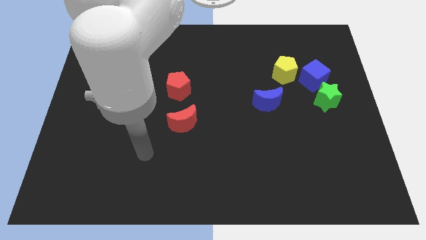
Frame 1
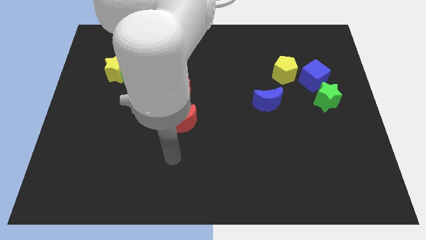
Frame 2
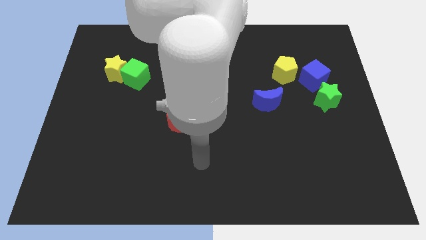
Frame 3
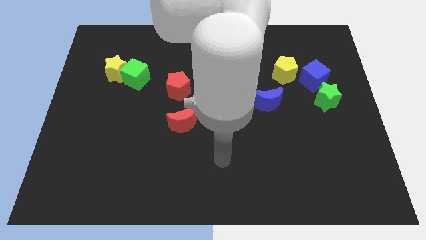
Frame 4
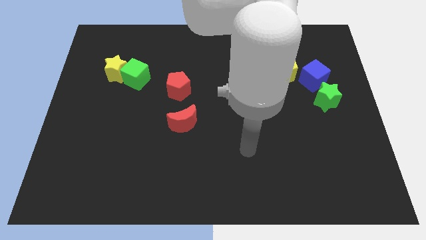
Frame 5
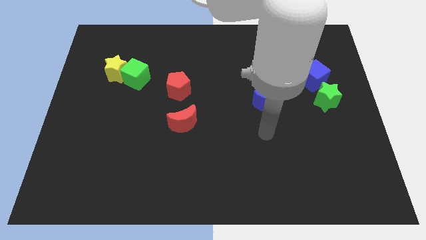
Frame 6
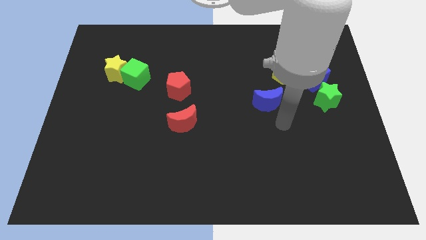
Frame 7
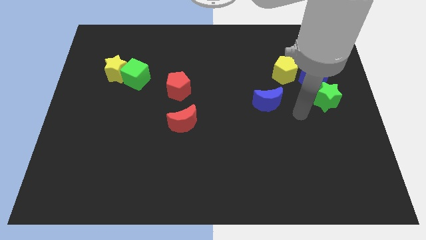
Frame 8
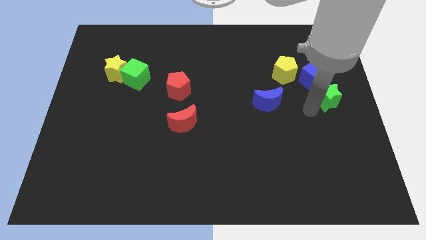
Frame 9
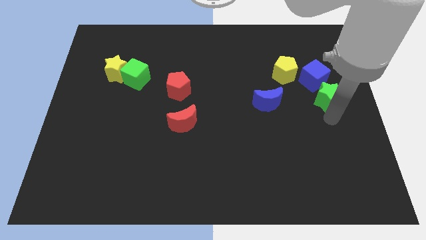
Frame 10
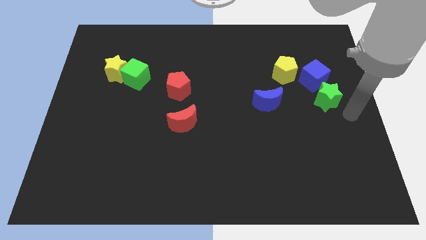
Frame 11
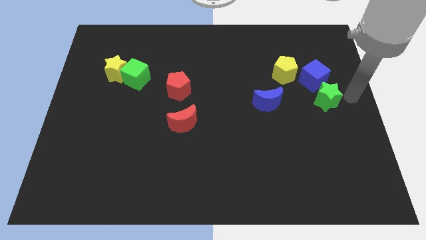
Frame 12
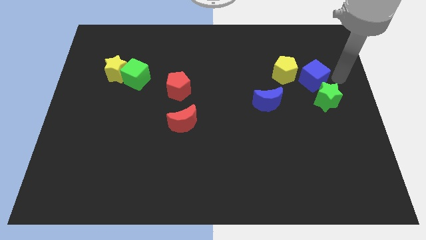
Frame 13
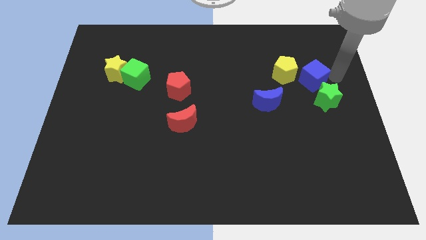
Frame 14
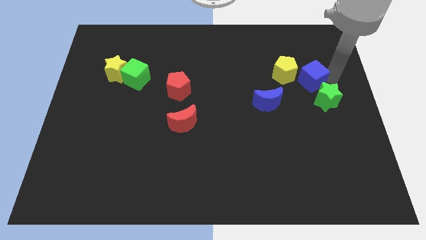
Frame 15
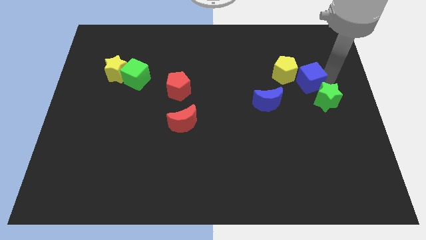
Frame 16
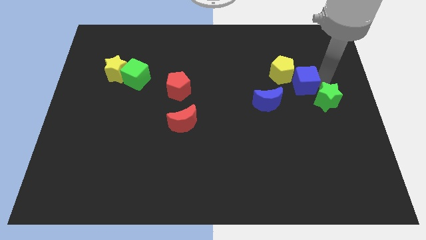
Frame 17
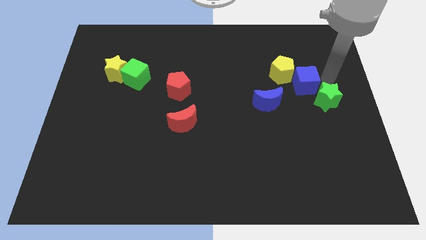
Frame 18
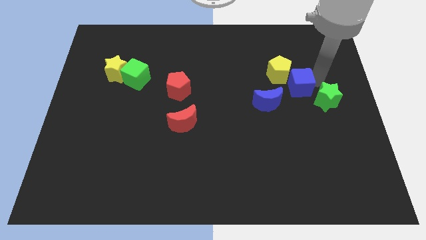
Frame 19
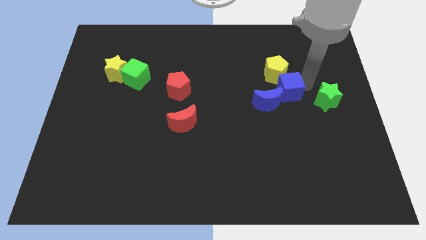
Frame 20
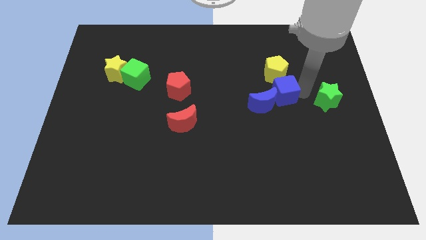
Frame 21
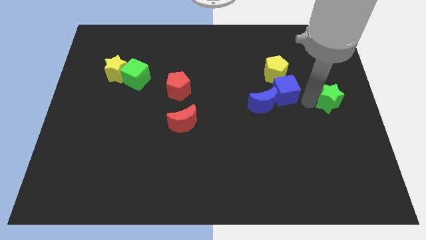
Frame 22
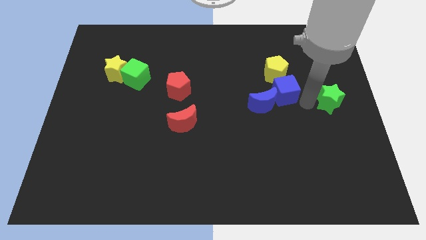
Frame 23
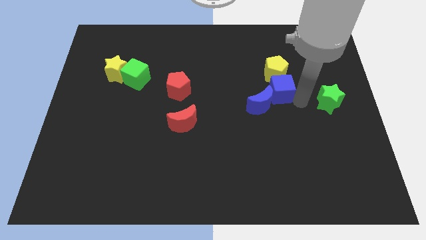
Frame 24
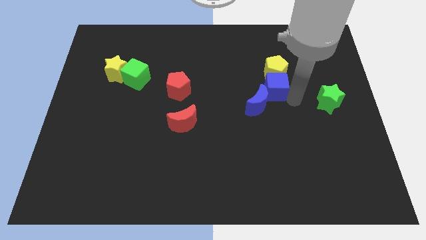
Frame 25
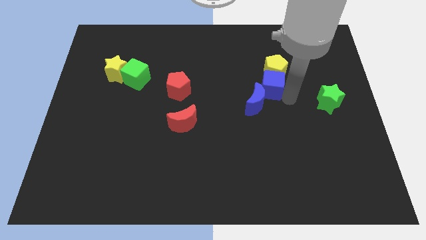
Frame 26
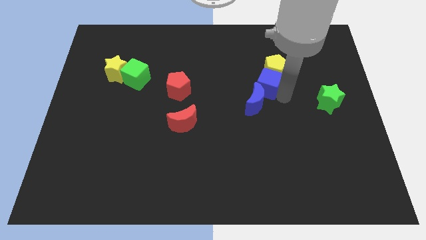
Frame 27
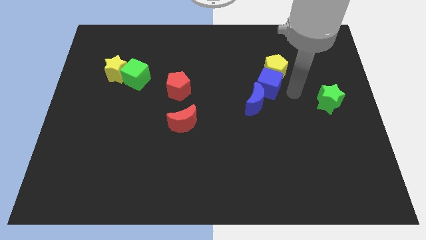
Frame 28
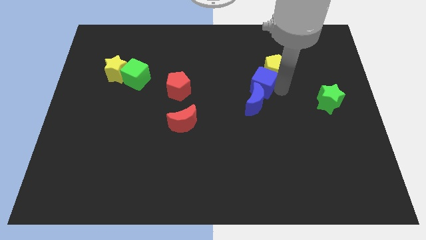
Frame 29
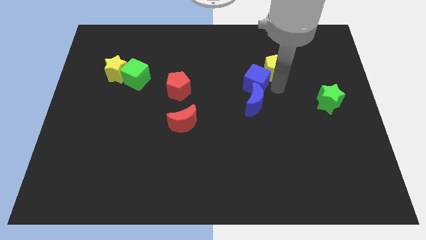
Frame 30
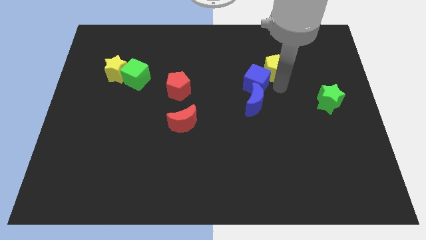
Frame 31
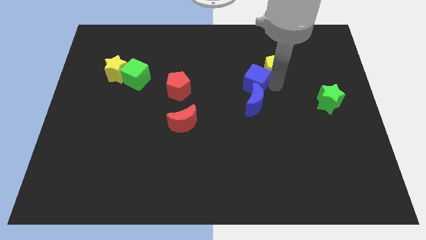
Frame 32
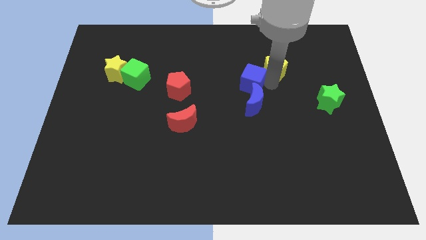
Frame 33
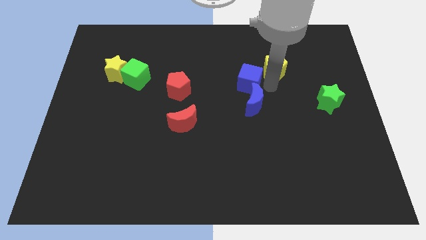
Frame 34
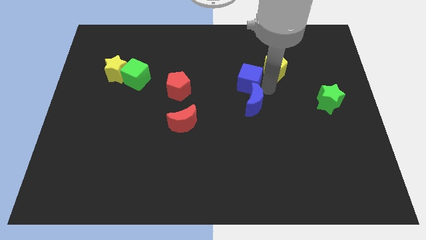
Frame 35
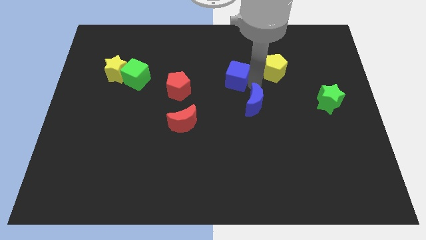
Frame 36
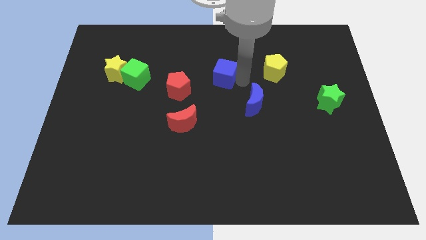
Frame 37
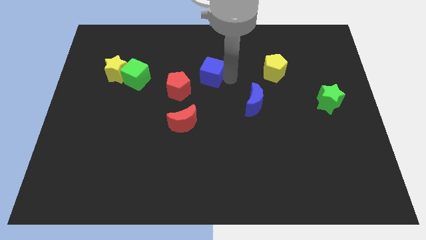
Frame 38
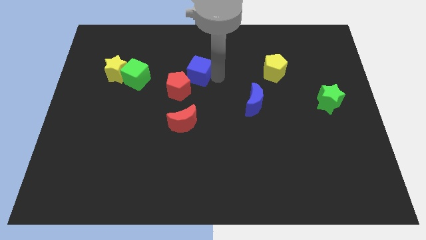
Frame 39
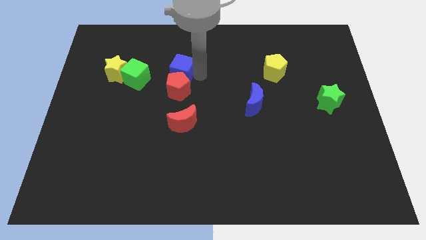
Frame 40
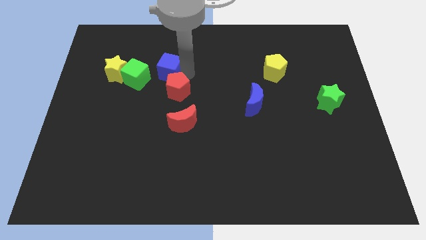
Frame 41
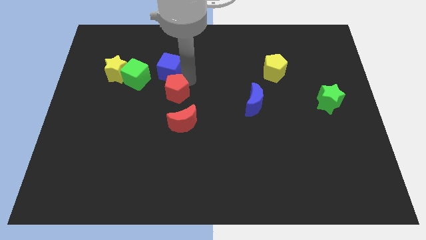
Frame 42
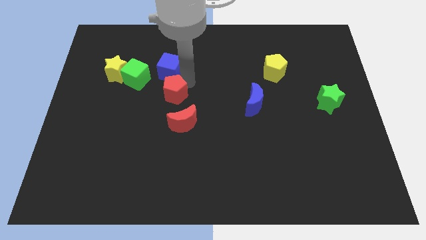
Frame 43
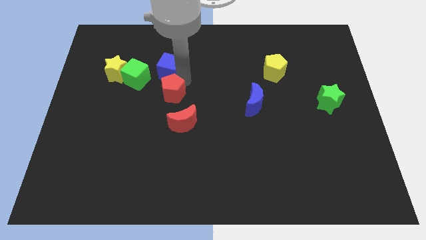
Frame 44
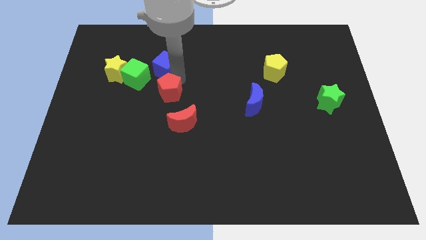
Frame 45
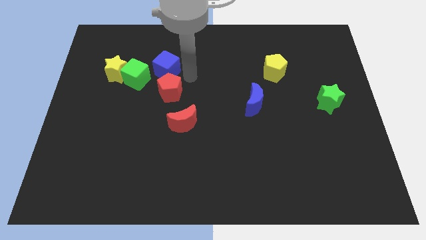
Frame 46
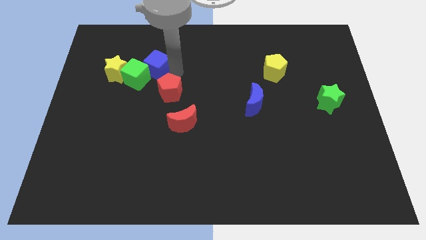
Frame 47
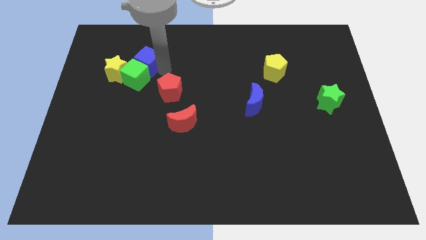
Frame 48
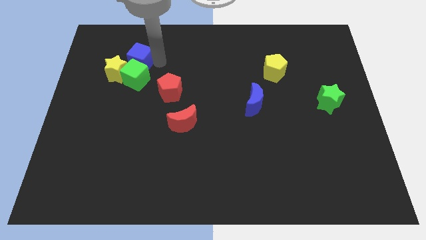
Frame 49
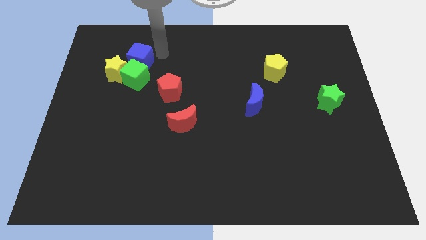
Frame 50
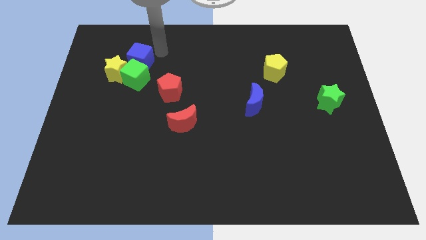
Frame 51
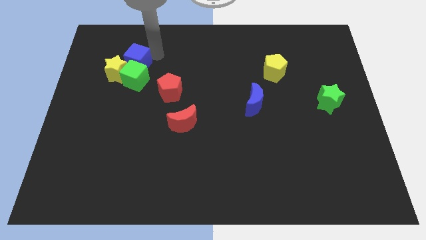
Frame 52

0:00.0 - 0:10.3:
move the blue cube towards the yellow star

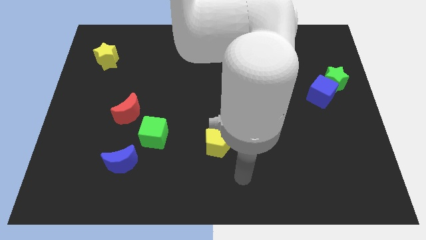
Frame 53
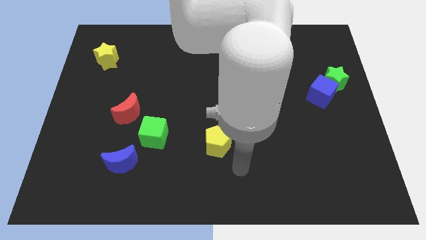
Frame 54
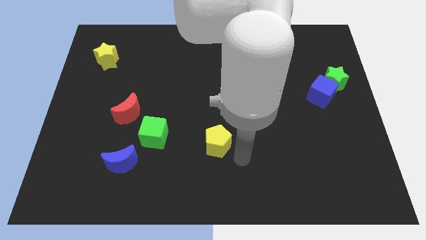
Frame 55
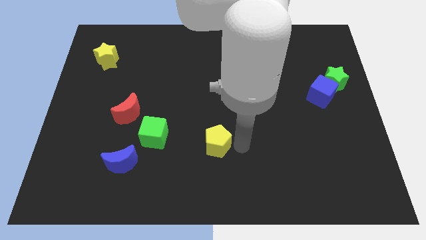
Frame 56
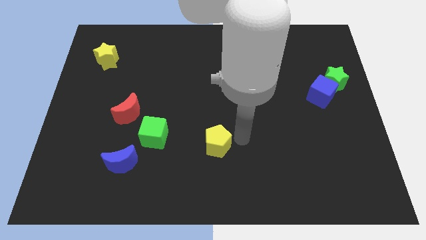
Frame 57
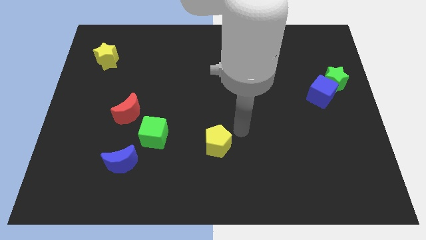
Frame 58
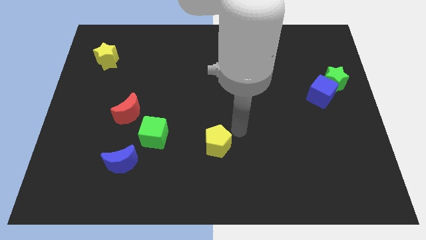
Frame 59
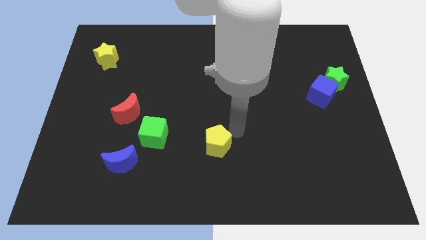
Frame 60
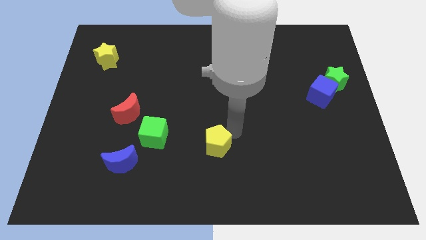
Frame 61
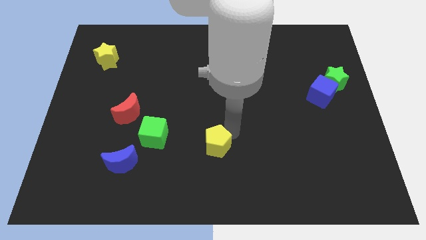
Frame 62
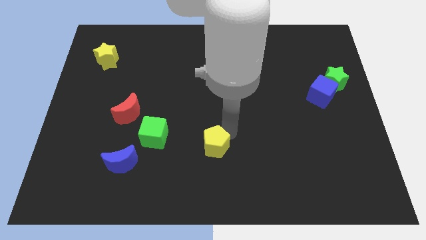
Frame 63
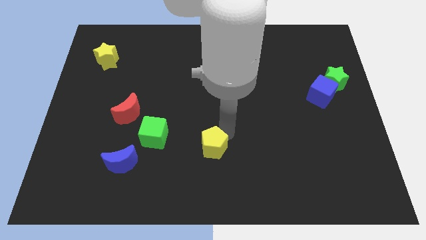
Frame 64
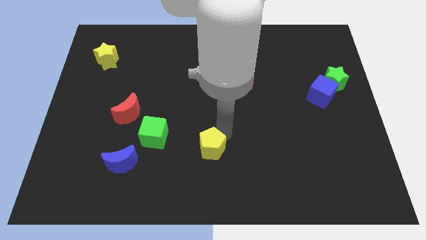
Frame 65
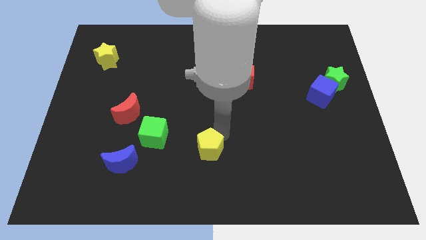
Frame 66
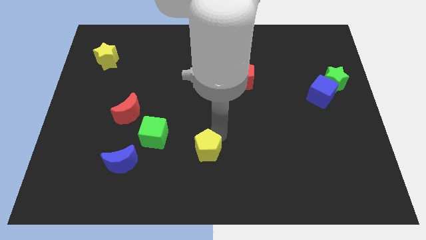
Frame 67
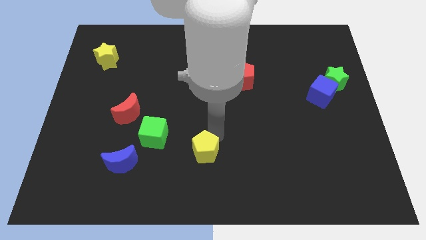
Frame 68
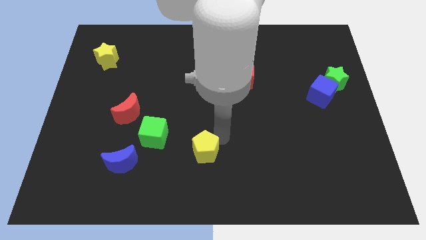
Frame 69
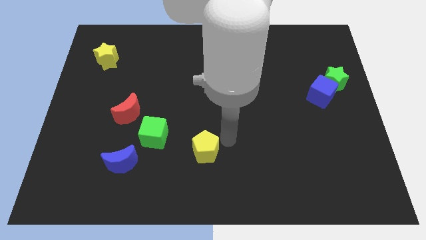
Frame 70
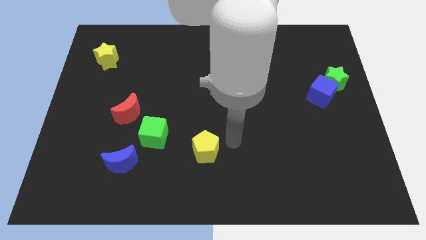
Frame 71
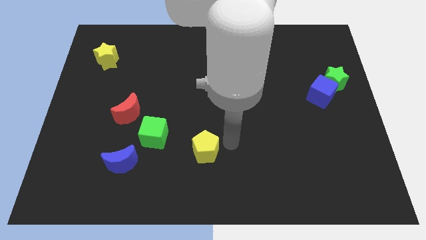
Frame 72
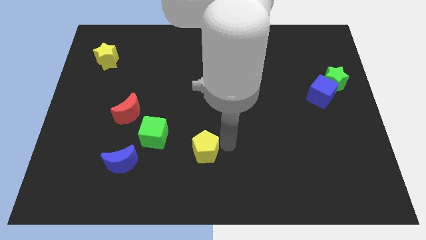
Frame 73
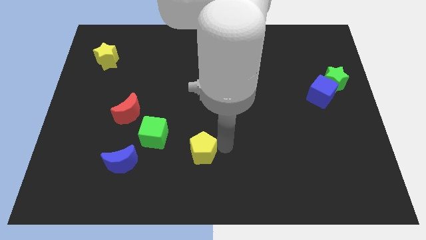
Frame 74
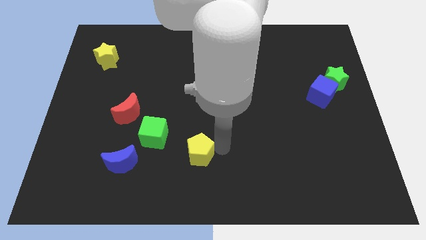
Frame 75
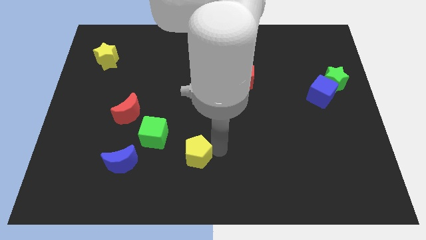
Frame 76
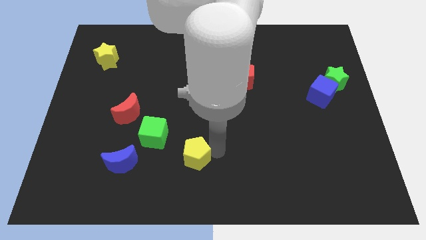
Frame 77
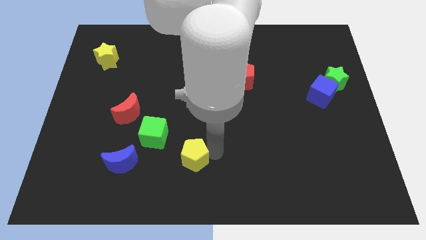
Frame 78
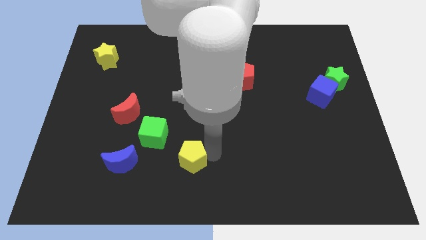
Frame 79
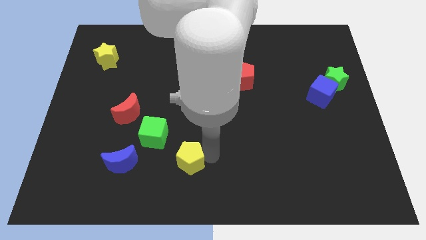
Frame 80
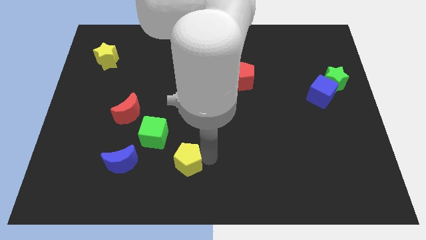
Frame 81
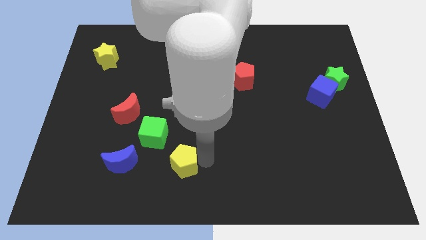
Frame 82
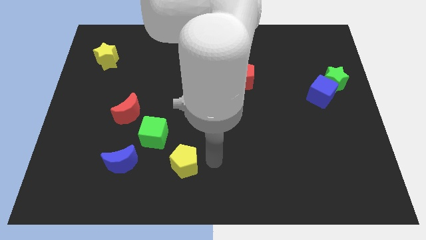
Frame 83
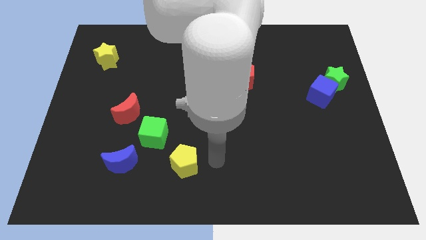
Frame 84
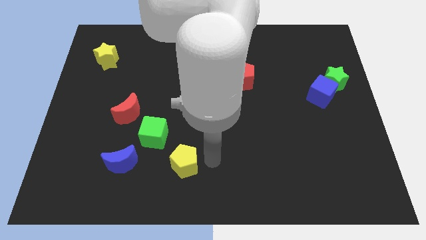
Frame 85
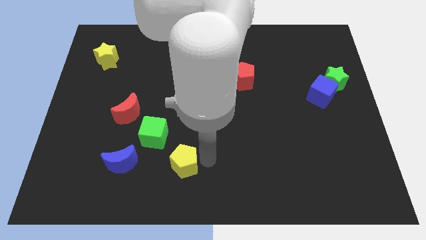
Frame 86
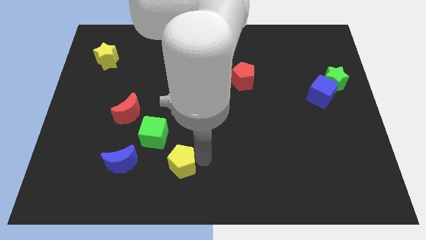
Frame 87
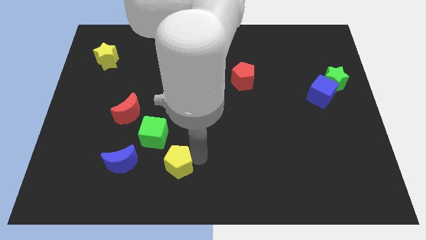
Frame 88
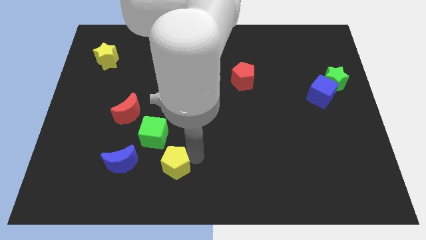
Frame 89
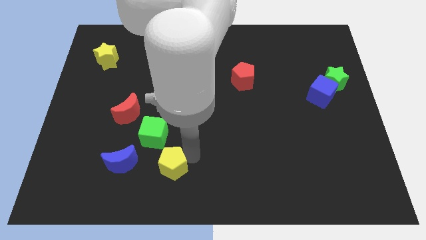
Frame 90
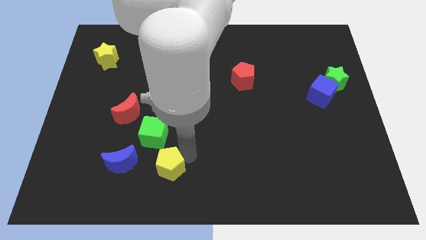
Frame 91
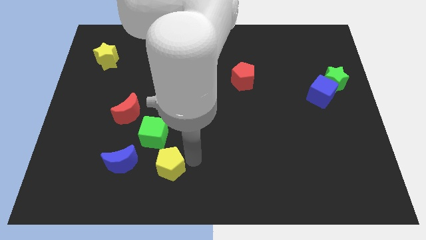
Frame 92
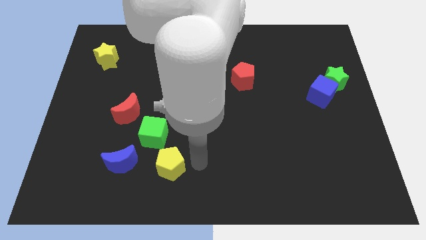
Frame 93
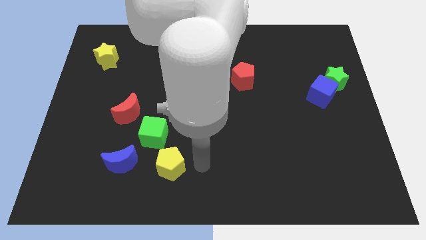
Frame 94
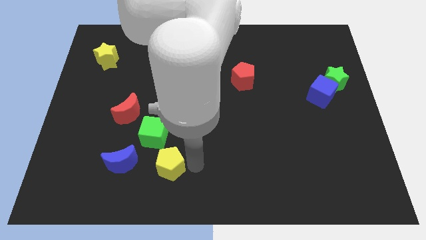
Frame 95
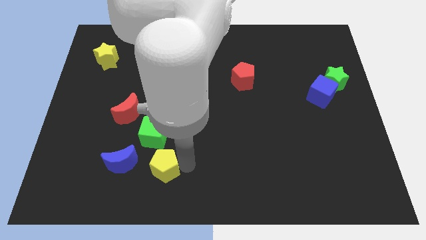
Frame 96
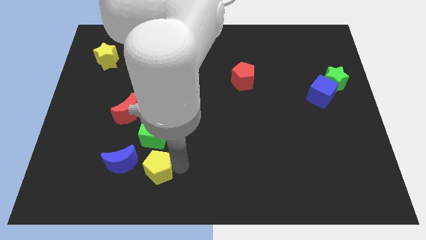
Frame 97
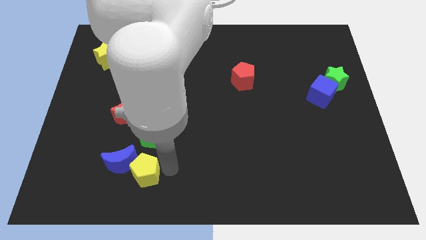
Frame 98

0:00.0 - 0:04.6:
slide the yellow pentagon close to the blue moon
